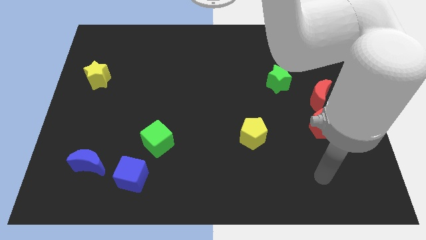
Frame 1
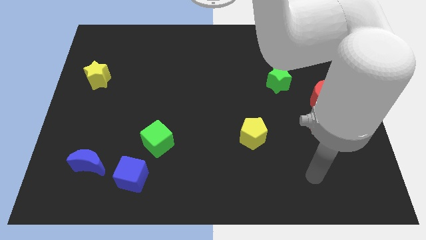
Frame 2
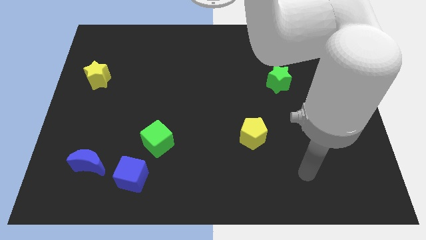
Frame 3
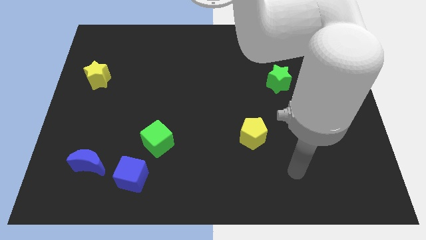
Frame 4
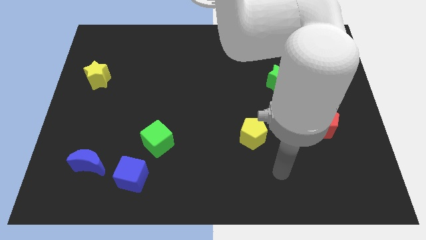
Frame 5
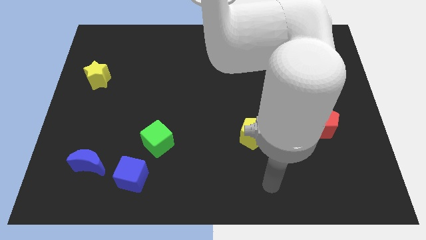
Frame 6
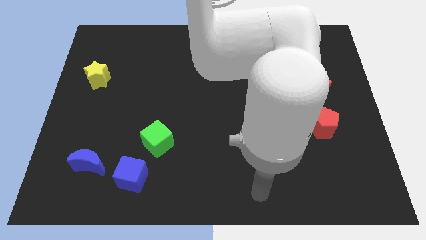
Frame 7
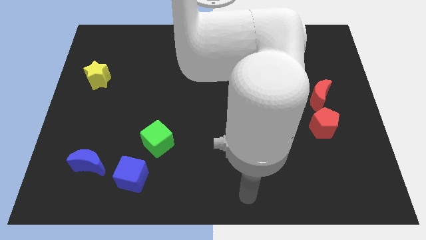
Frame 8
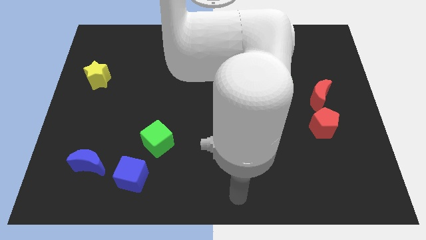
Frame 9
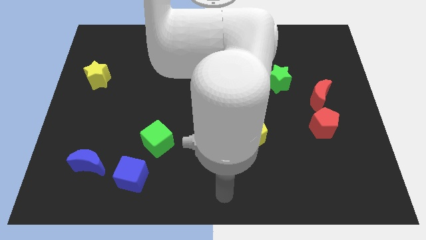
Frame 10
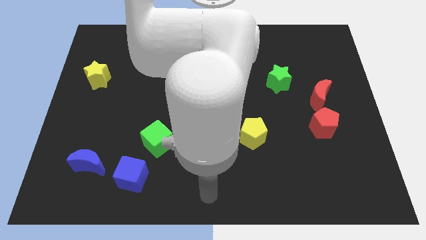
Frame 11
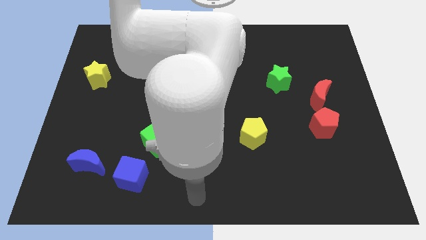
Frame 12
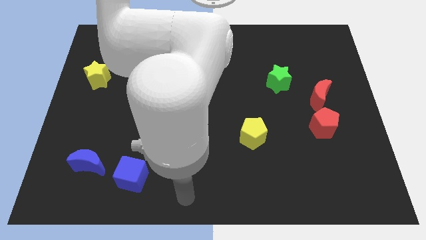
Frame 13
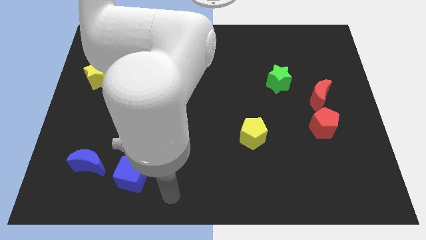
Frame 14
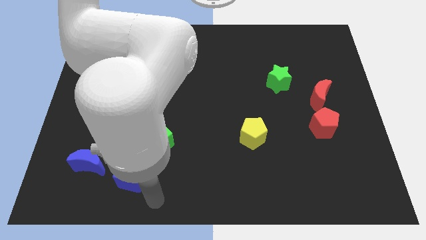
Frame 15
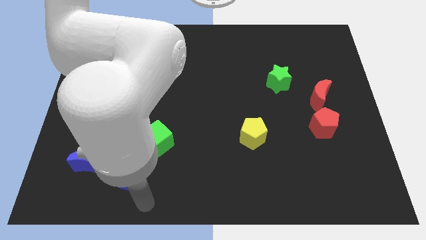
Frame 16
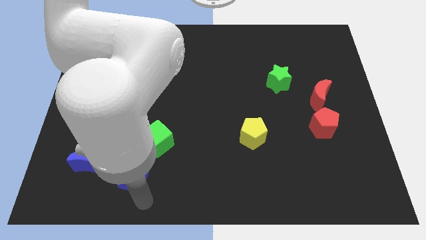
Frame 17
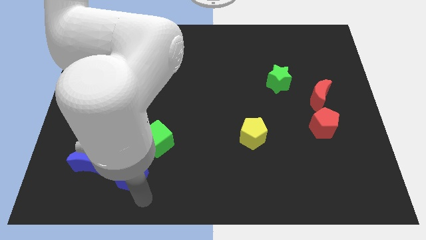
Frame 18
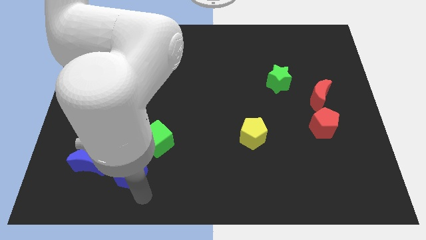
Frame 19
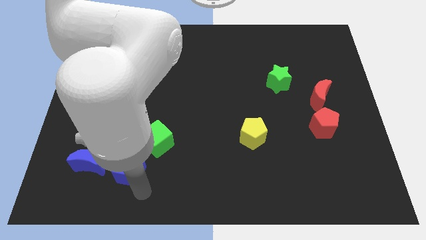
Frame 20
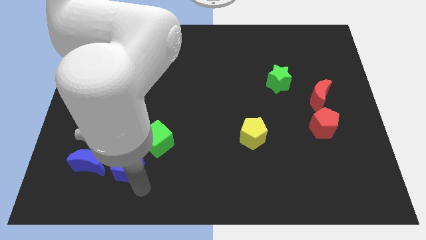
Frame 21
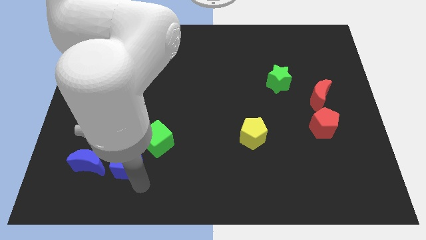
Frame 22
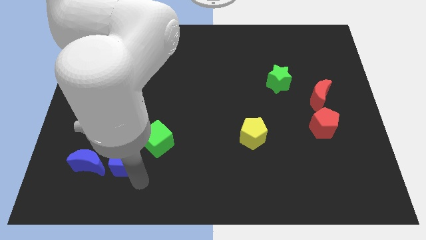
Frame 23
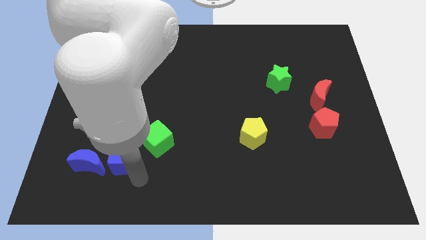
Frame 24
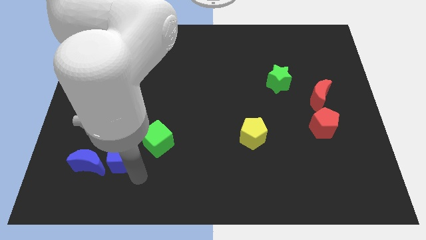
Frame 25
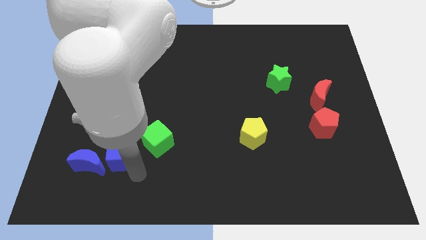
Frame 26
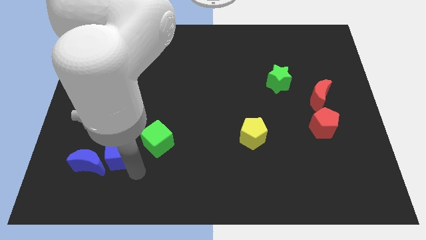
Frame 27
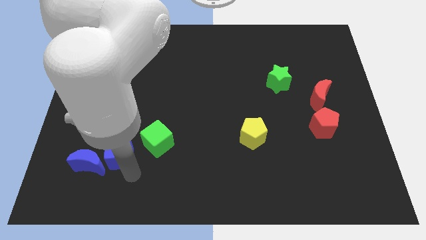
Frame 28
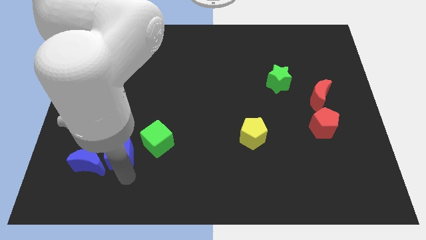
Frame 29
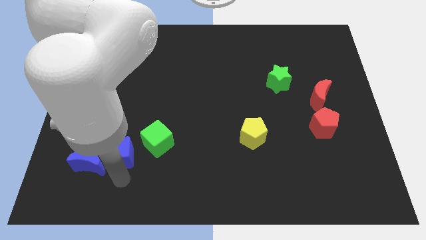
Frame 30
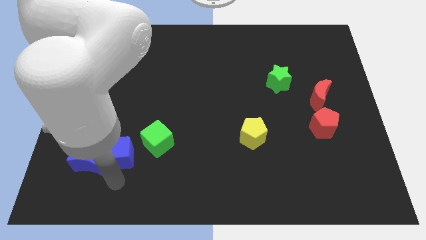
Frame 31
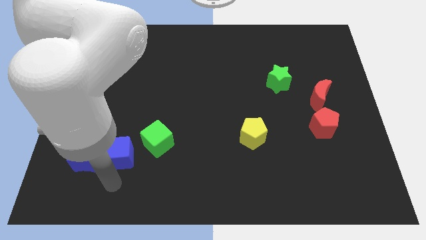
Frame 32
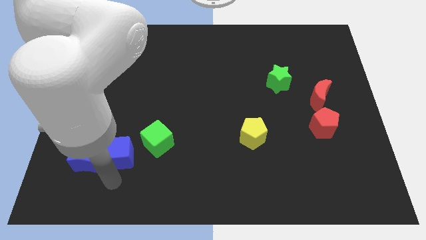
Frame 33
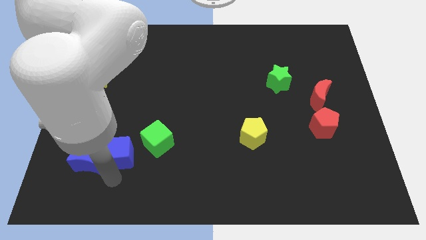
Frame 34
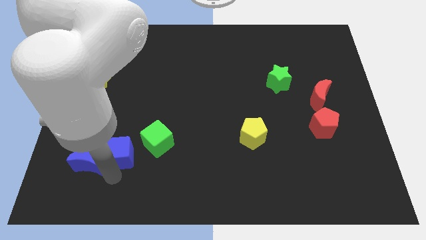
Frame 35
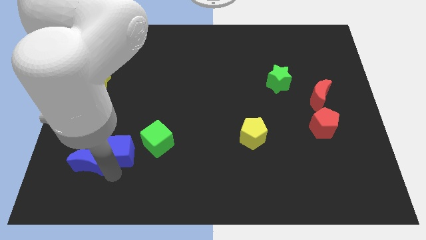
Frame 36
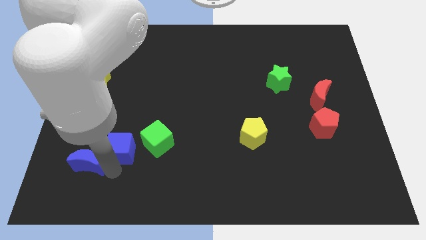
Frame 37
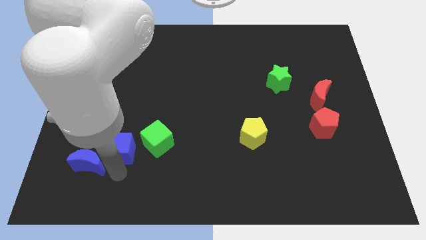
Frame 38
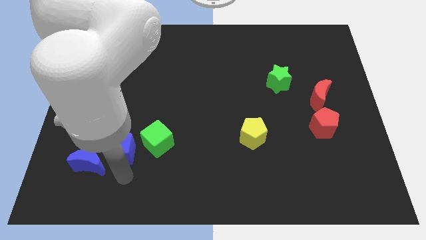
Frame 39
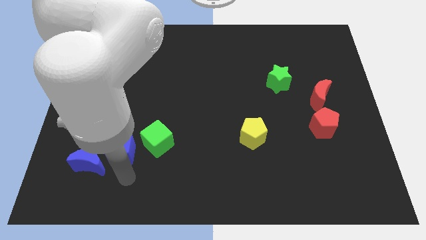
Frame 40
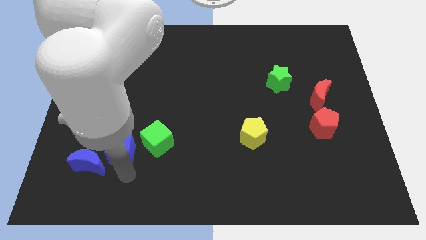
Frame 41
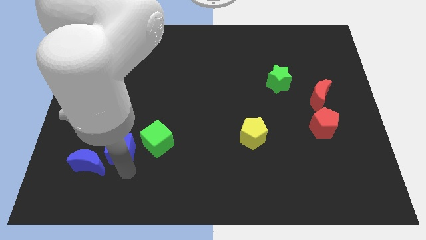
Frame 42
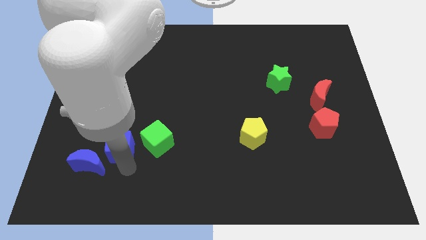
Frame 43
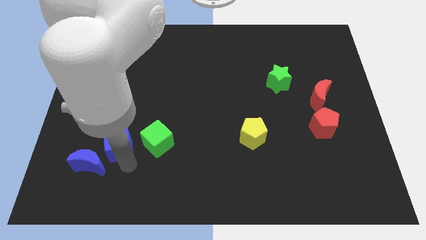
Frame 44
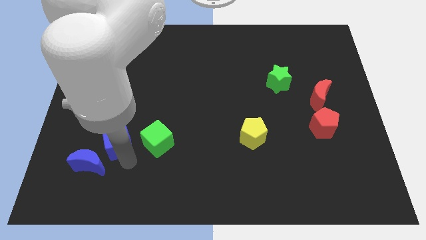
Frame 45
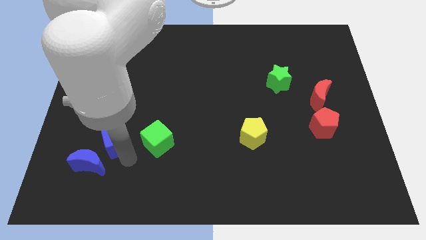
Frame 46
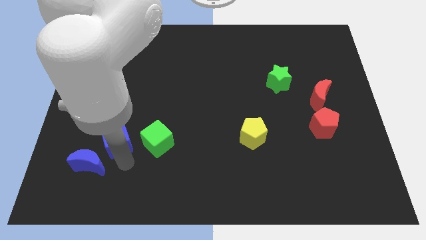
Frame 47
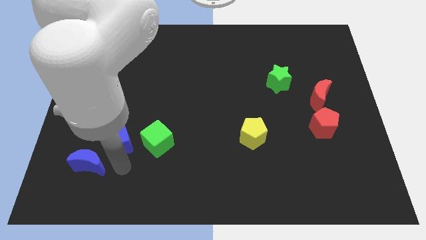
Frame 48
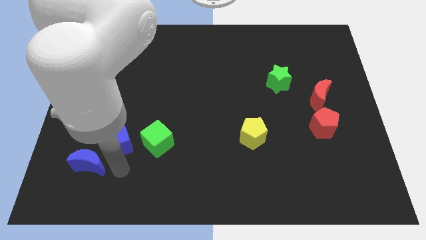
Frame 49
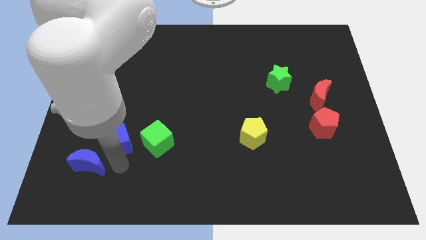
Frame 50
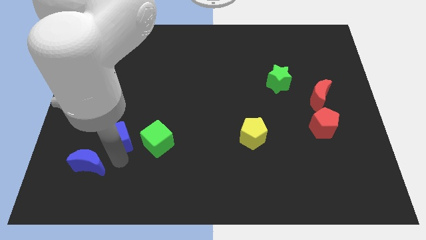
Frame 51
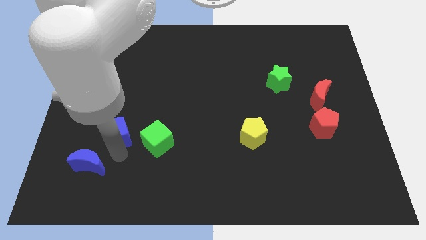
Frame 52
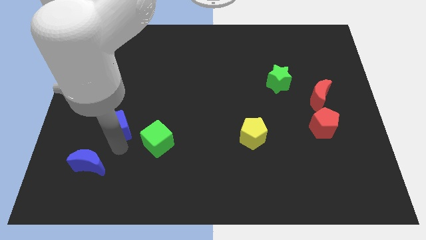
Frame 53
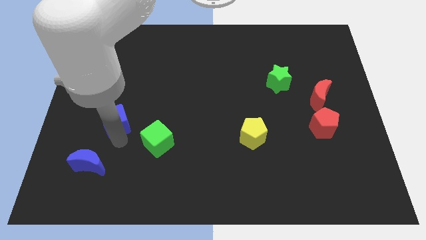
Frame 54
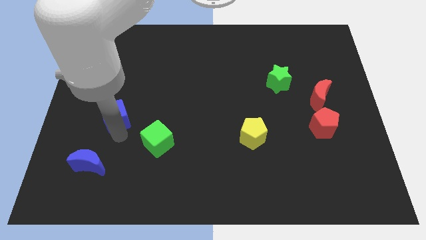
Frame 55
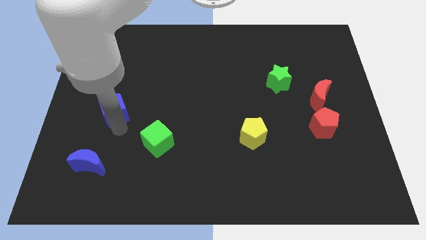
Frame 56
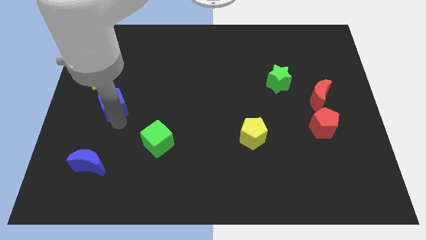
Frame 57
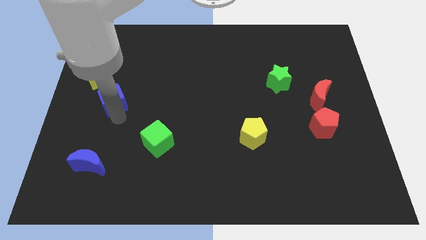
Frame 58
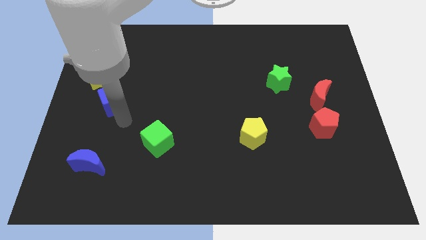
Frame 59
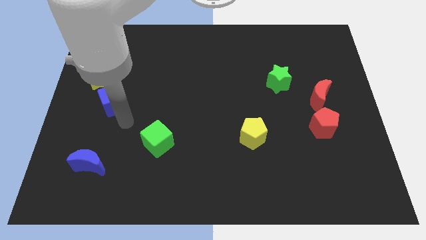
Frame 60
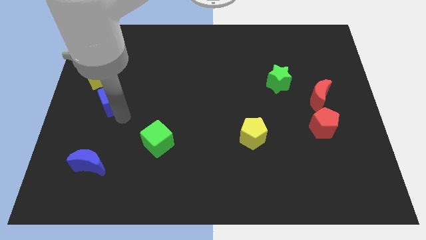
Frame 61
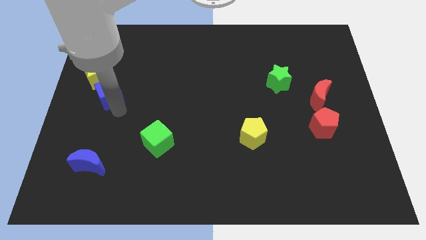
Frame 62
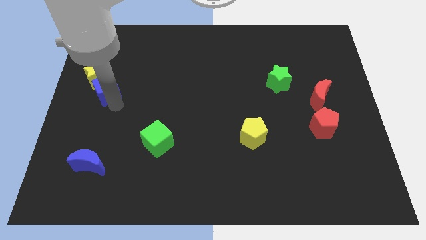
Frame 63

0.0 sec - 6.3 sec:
slide the blue cube next to the yellow star

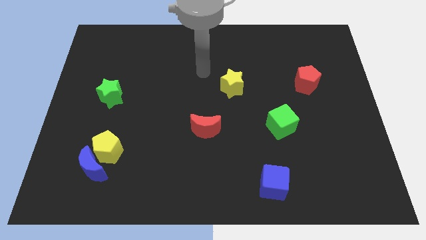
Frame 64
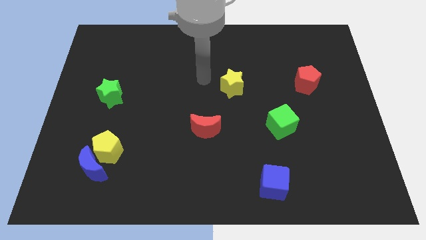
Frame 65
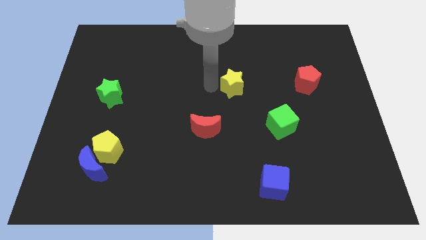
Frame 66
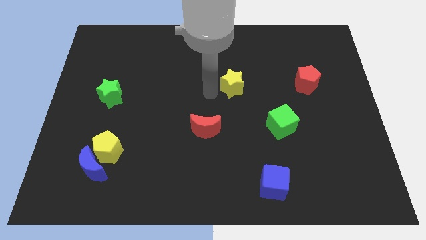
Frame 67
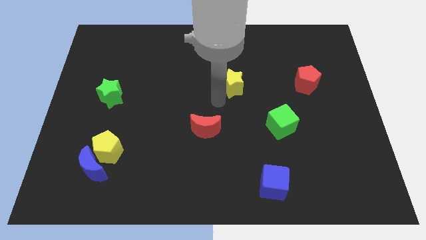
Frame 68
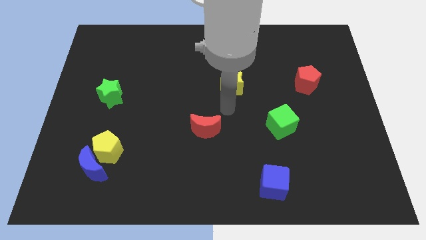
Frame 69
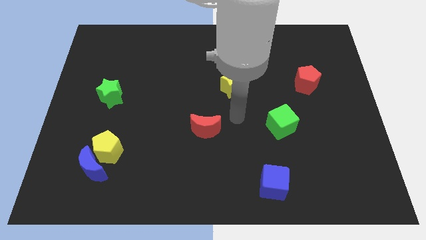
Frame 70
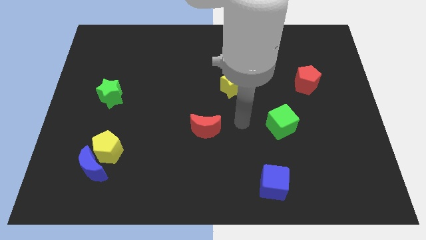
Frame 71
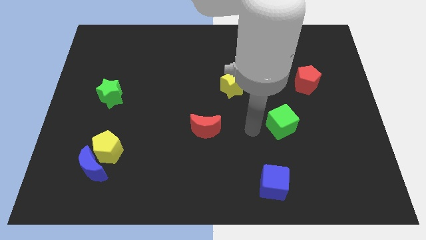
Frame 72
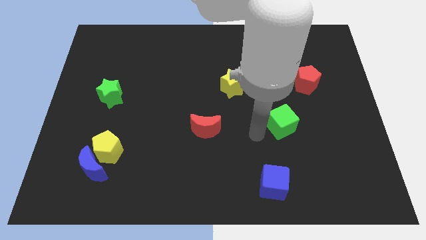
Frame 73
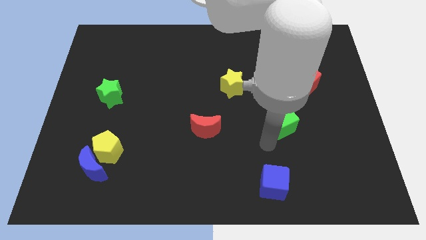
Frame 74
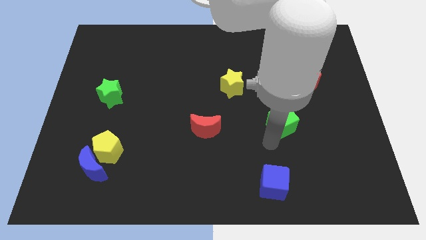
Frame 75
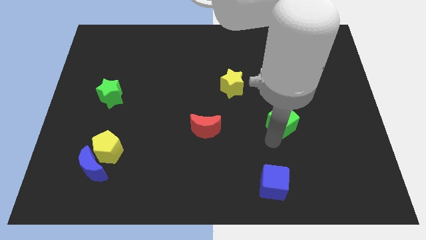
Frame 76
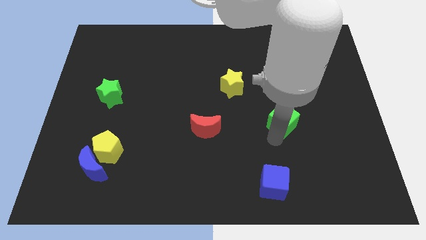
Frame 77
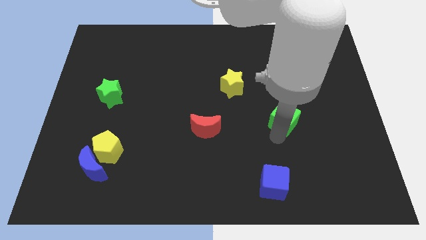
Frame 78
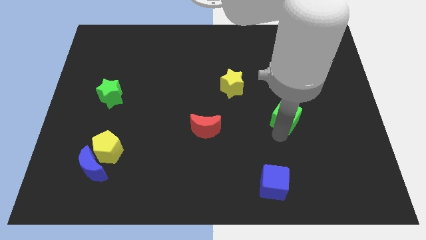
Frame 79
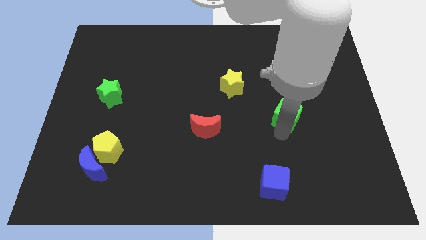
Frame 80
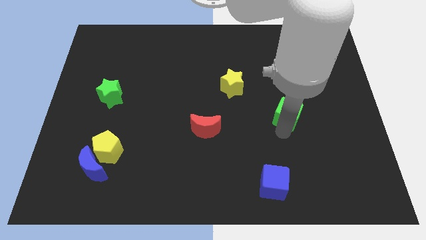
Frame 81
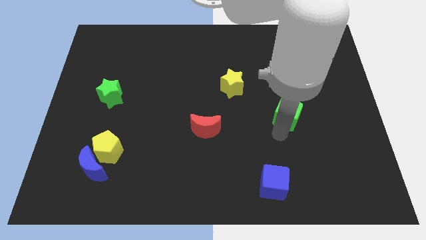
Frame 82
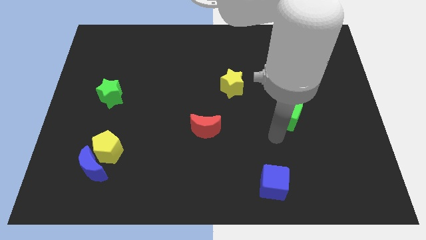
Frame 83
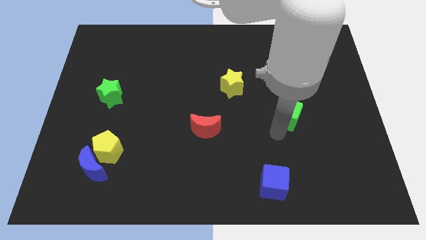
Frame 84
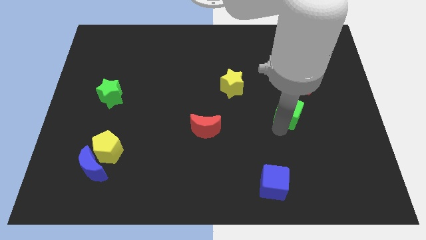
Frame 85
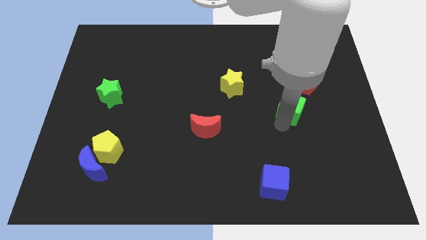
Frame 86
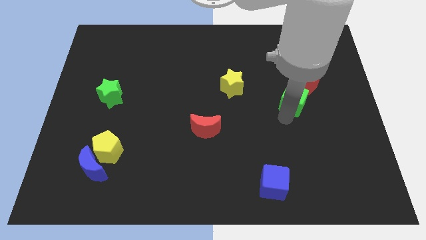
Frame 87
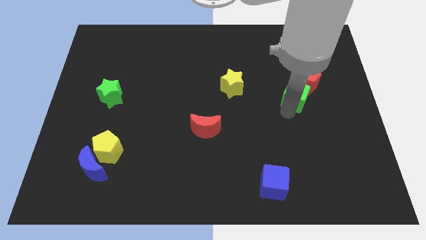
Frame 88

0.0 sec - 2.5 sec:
put the green cube close to the red pentagon
